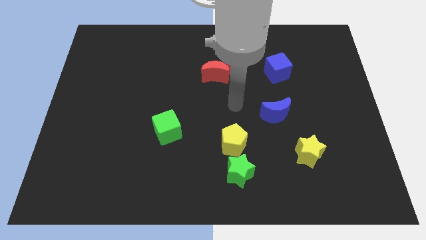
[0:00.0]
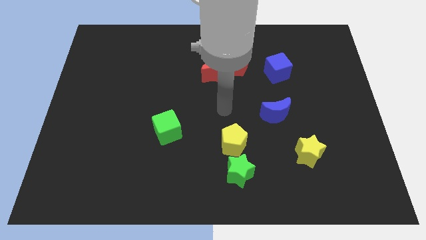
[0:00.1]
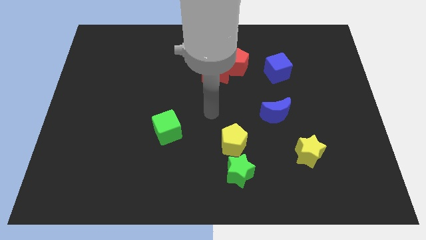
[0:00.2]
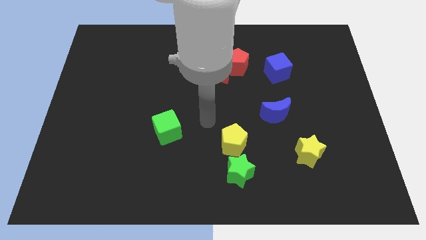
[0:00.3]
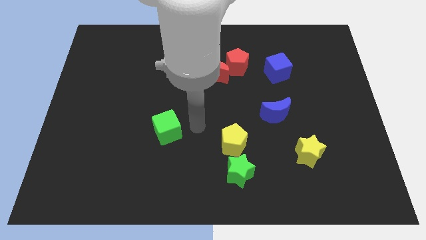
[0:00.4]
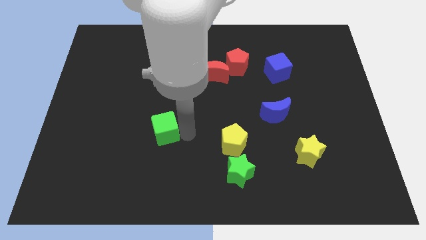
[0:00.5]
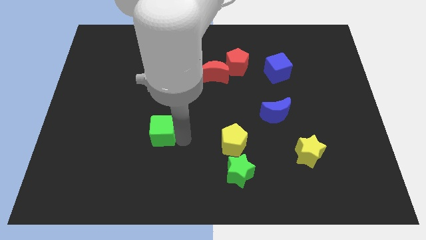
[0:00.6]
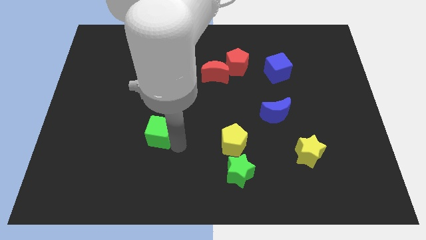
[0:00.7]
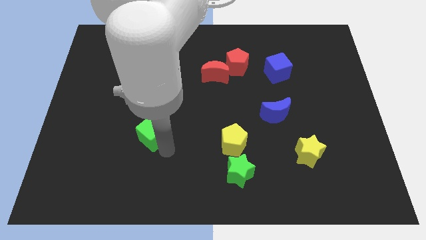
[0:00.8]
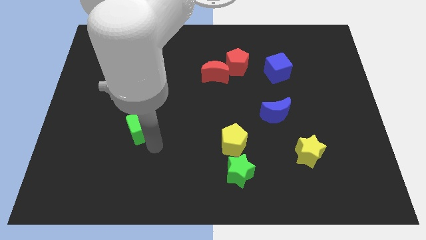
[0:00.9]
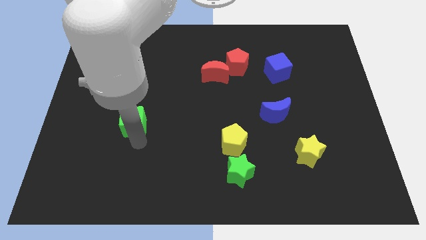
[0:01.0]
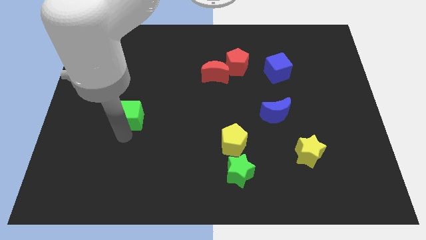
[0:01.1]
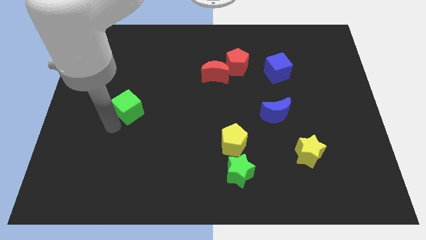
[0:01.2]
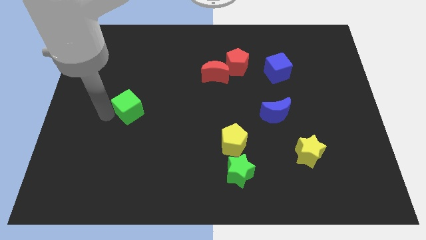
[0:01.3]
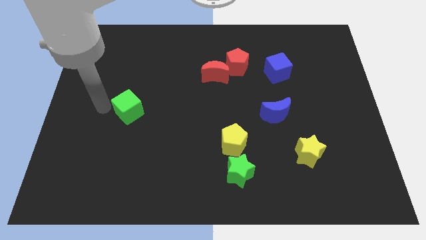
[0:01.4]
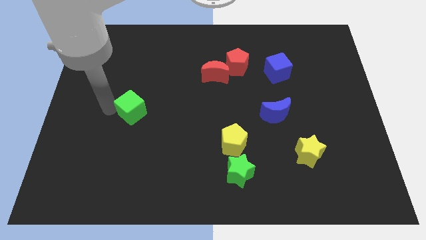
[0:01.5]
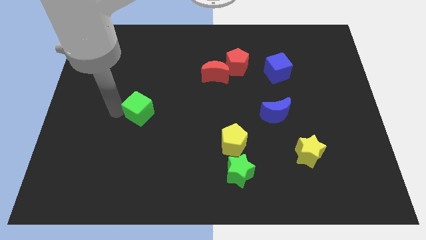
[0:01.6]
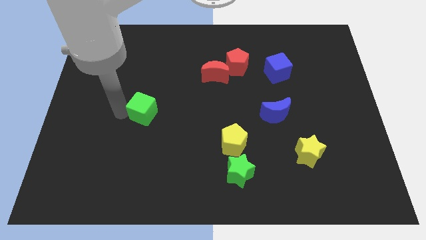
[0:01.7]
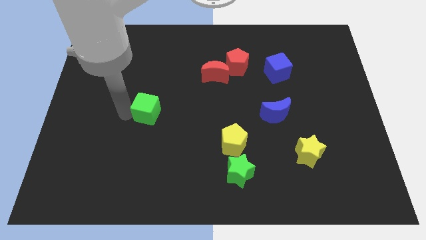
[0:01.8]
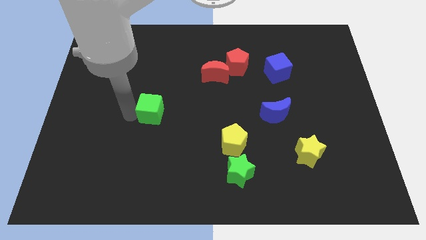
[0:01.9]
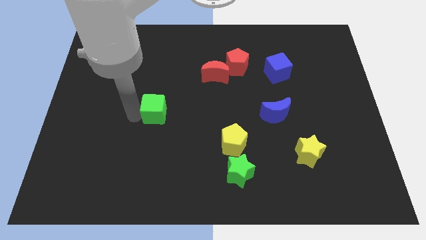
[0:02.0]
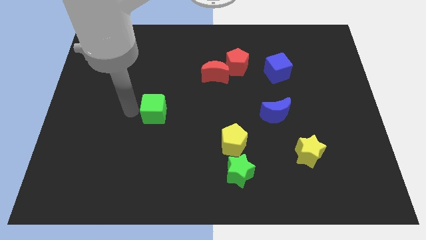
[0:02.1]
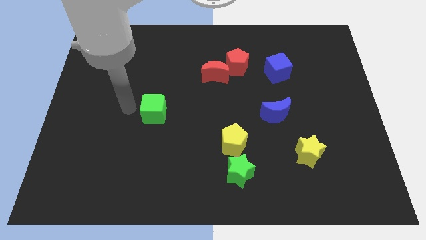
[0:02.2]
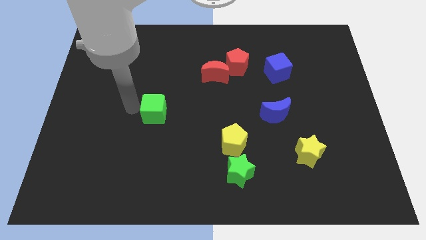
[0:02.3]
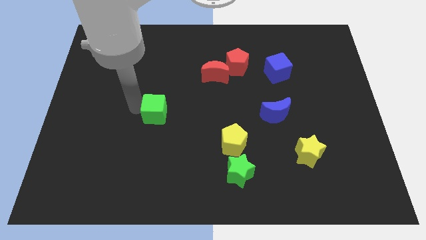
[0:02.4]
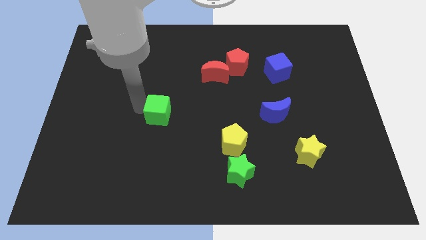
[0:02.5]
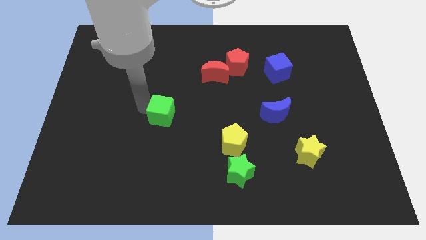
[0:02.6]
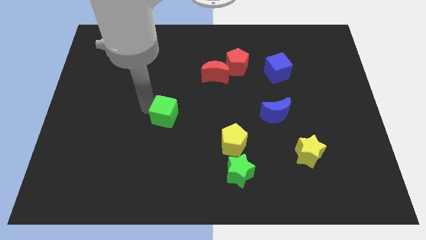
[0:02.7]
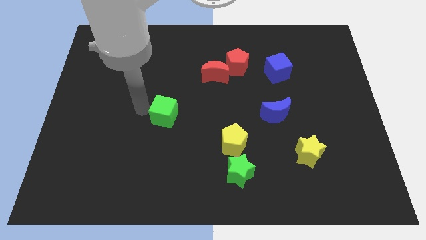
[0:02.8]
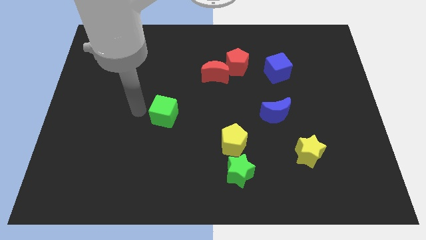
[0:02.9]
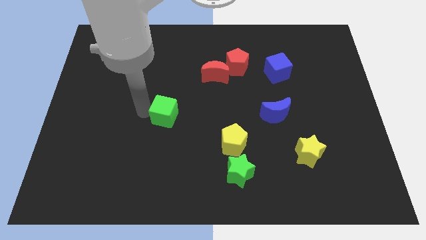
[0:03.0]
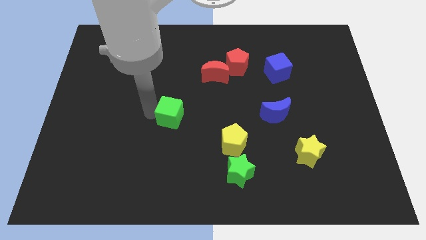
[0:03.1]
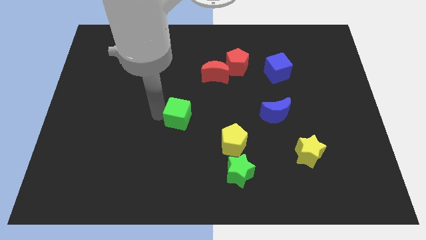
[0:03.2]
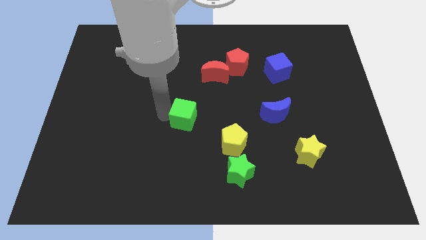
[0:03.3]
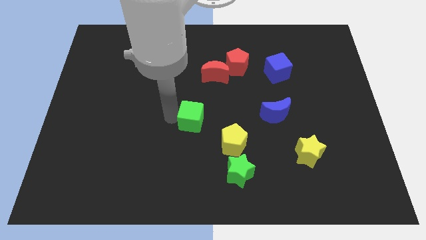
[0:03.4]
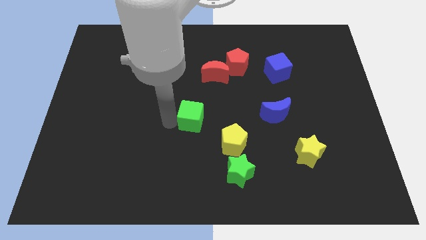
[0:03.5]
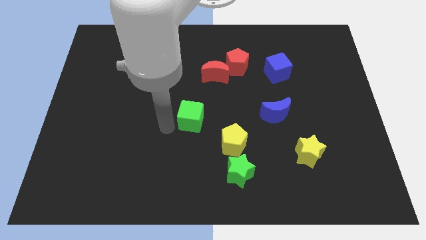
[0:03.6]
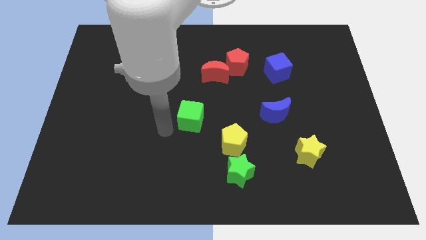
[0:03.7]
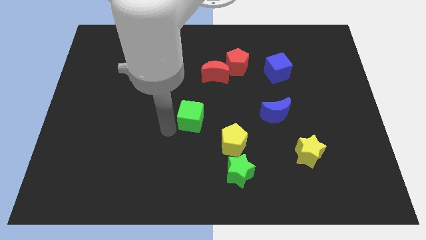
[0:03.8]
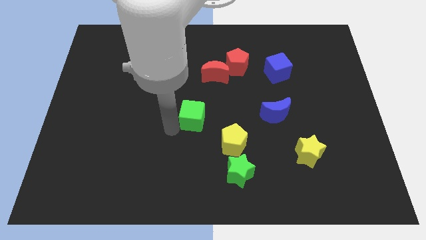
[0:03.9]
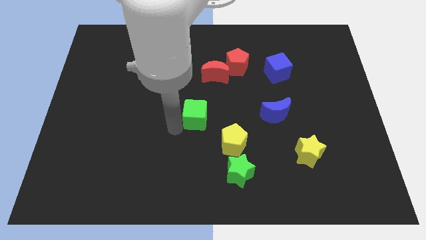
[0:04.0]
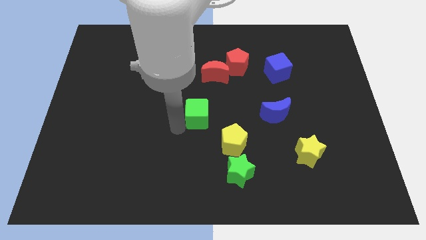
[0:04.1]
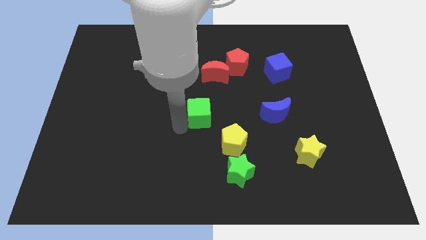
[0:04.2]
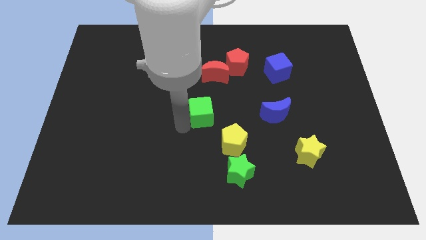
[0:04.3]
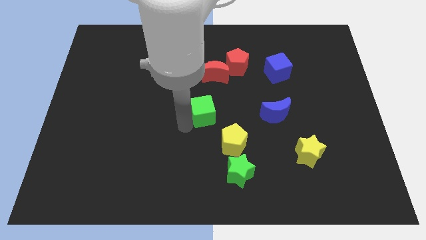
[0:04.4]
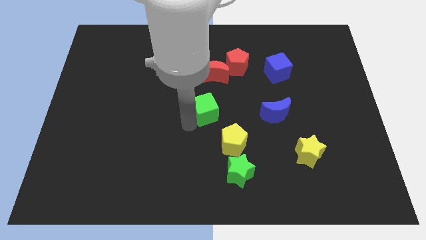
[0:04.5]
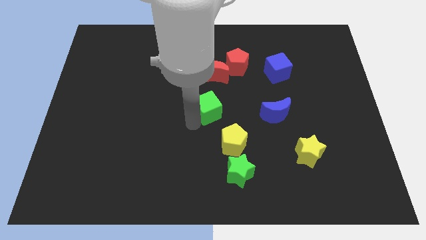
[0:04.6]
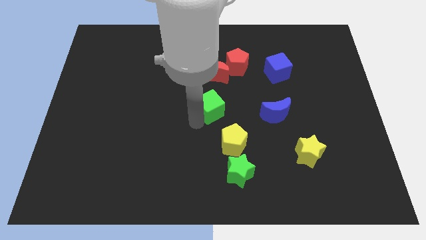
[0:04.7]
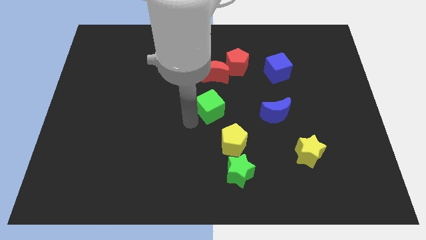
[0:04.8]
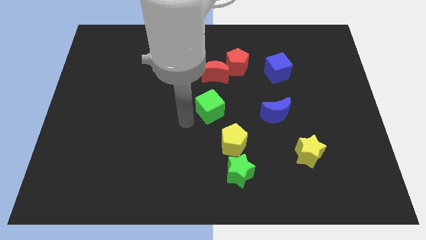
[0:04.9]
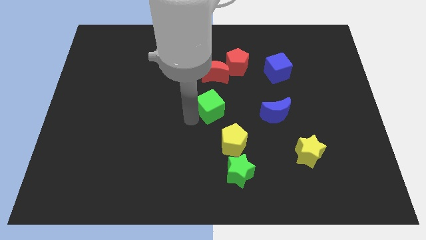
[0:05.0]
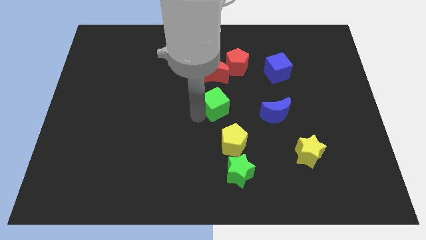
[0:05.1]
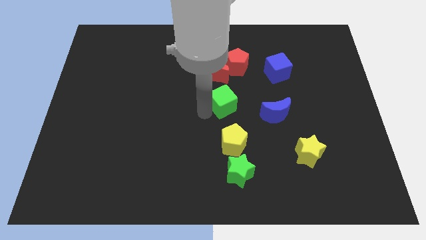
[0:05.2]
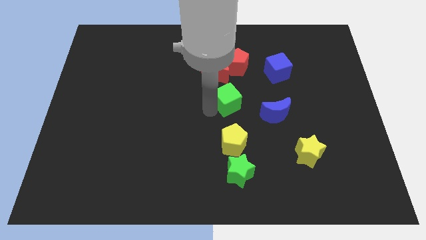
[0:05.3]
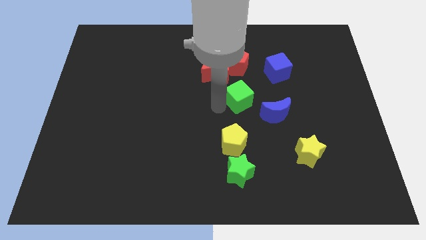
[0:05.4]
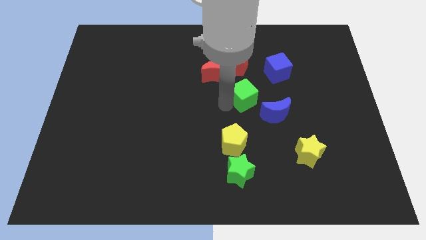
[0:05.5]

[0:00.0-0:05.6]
slide the green cube to the bottom left of the blue cube

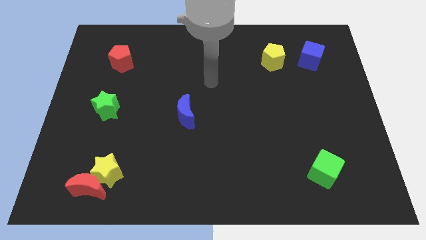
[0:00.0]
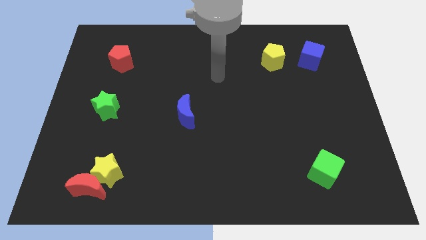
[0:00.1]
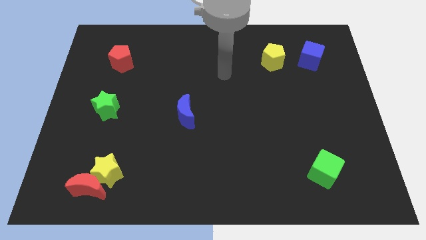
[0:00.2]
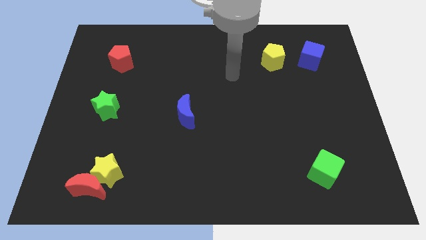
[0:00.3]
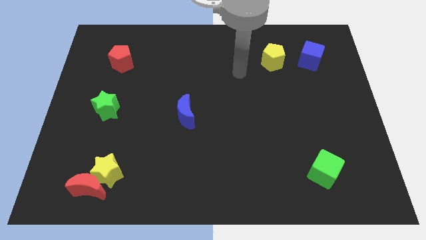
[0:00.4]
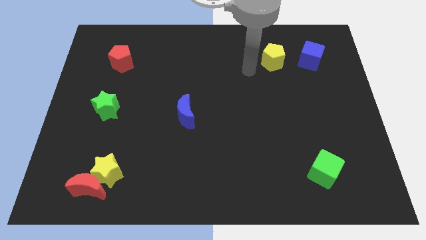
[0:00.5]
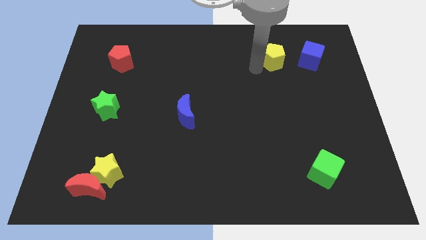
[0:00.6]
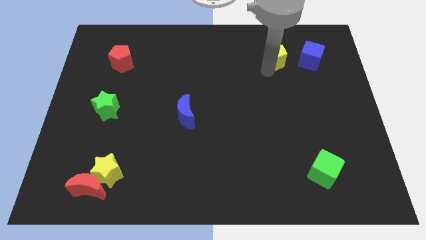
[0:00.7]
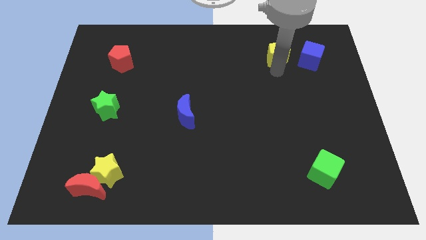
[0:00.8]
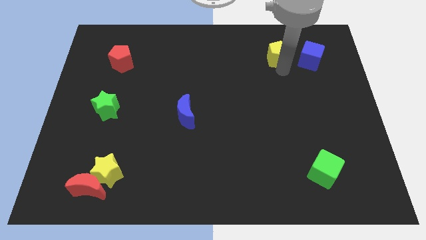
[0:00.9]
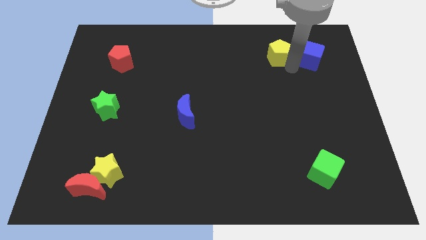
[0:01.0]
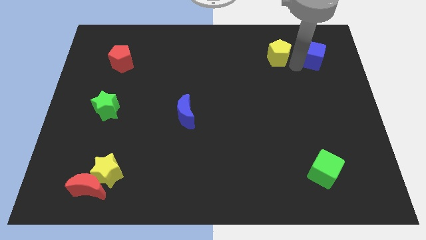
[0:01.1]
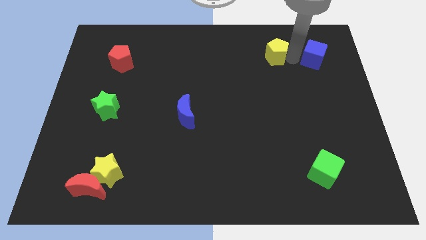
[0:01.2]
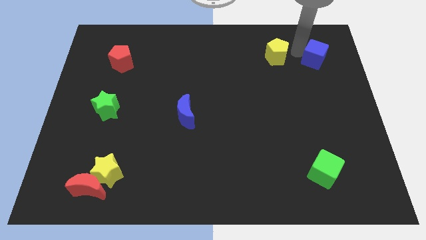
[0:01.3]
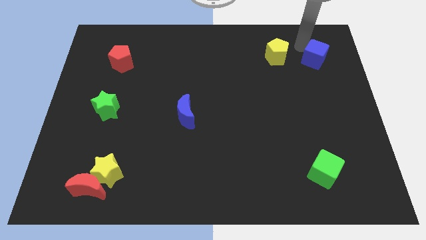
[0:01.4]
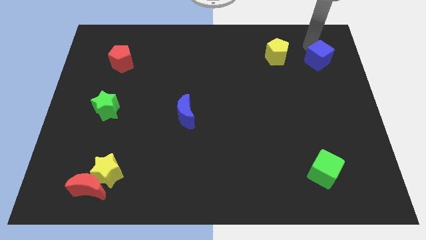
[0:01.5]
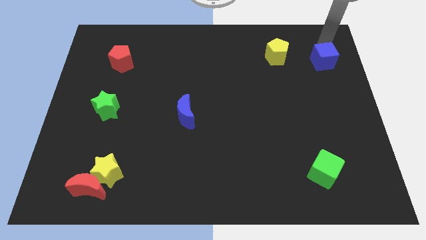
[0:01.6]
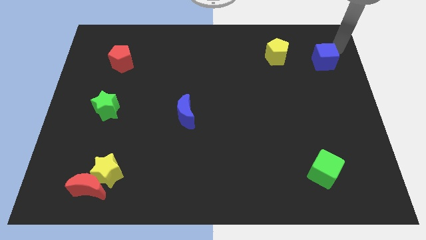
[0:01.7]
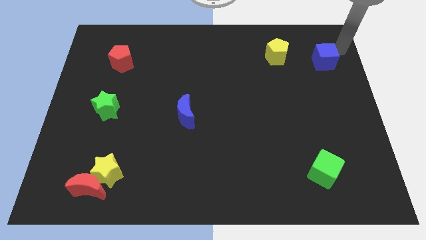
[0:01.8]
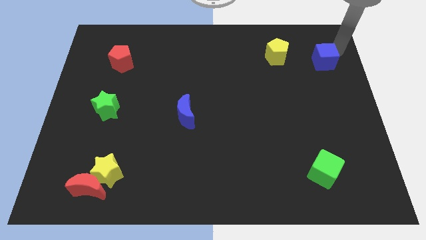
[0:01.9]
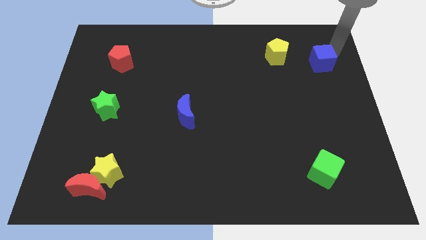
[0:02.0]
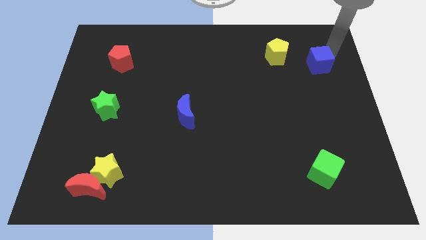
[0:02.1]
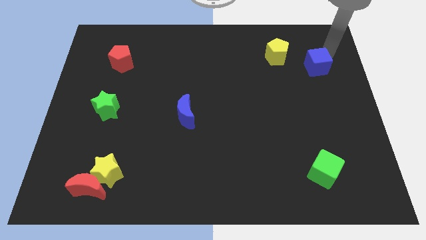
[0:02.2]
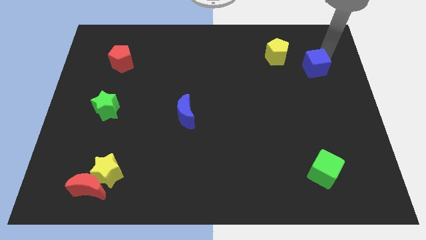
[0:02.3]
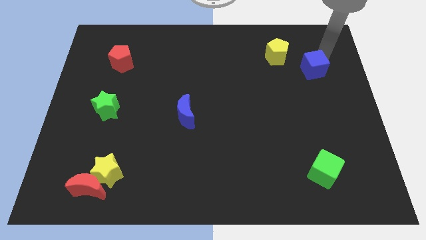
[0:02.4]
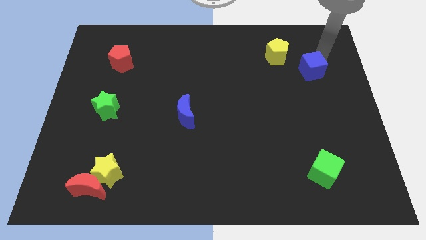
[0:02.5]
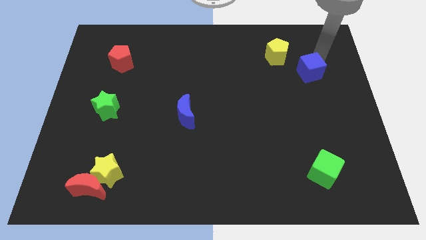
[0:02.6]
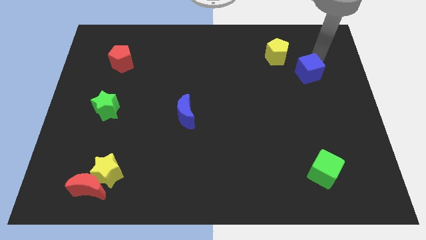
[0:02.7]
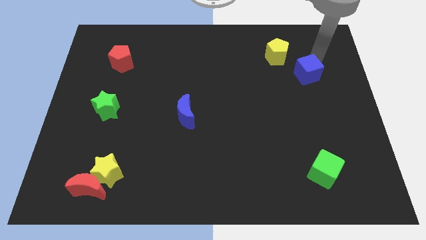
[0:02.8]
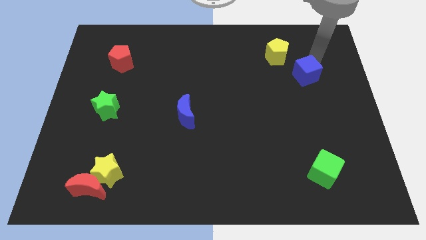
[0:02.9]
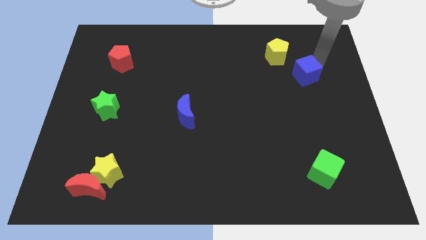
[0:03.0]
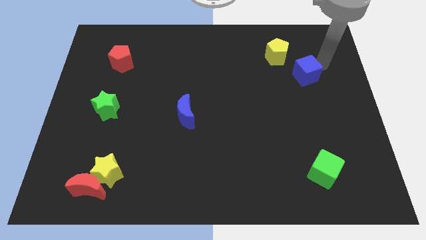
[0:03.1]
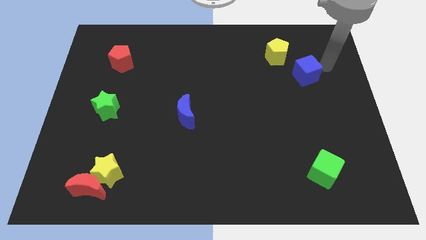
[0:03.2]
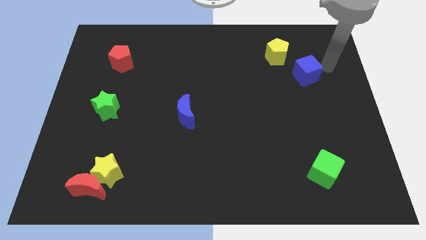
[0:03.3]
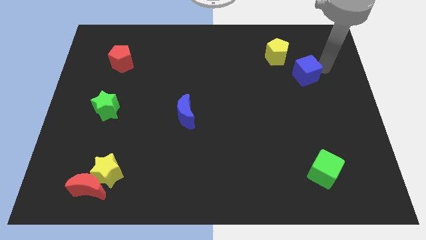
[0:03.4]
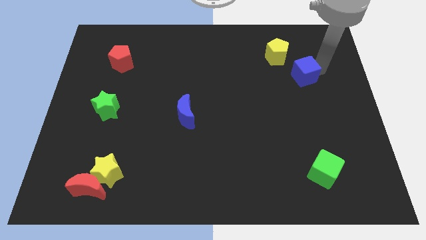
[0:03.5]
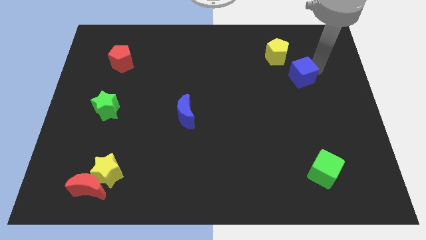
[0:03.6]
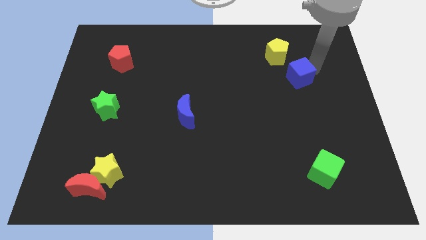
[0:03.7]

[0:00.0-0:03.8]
put the blue cube to the bottom side of the yellow pentagon
